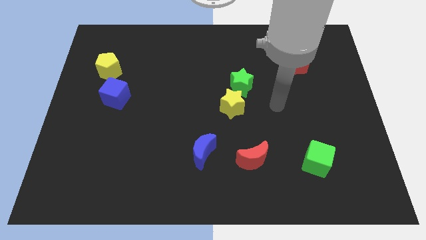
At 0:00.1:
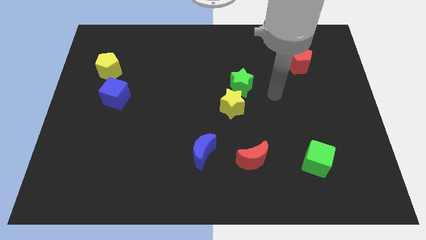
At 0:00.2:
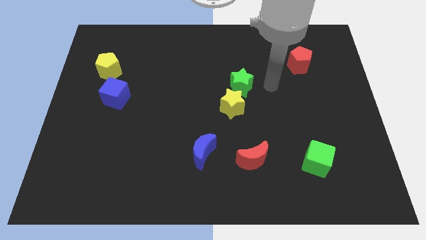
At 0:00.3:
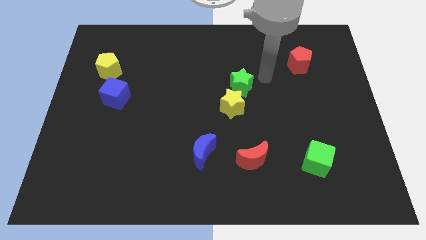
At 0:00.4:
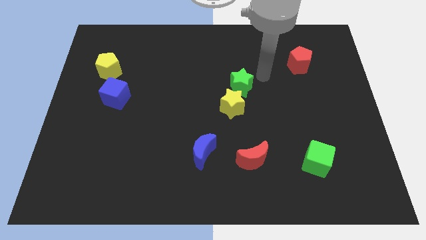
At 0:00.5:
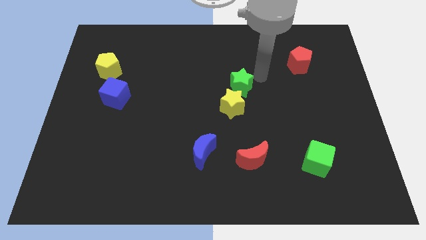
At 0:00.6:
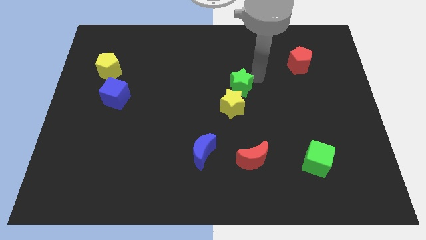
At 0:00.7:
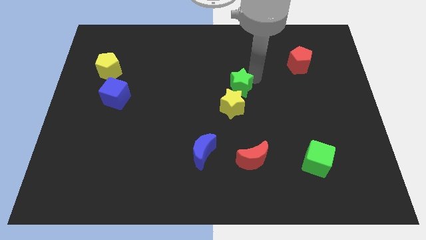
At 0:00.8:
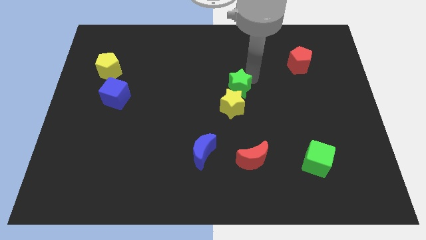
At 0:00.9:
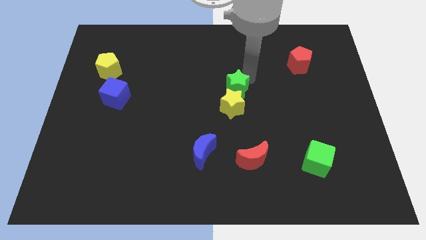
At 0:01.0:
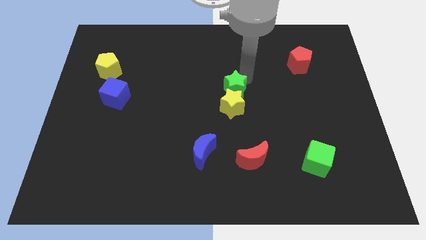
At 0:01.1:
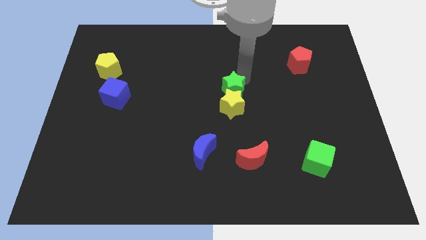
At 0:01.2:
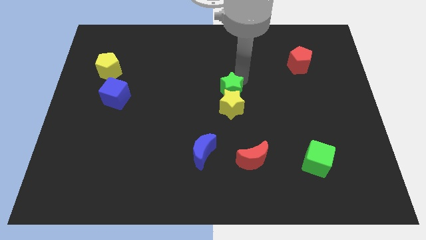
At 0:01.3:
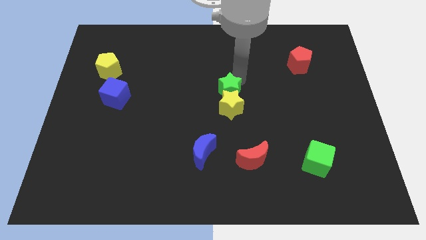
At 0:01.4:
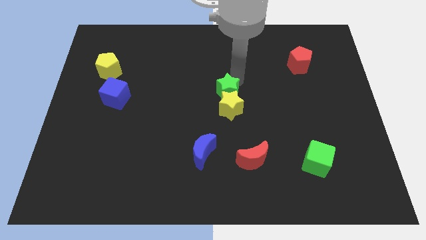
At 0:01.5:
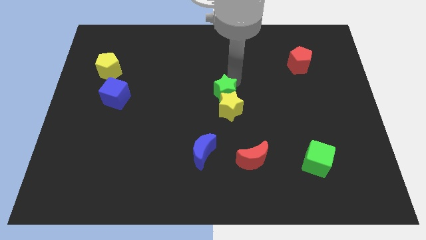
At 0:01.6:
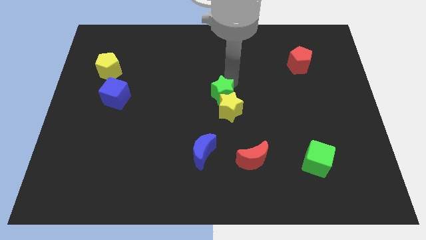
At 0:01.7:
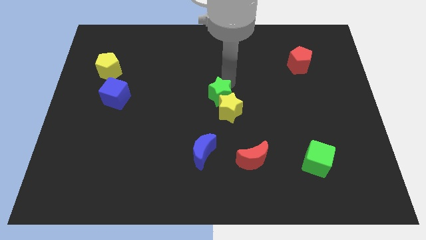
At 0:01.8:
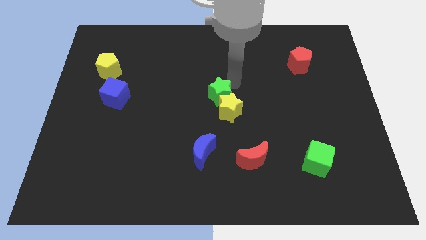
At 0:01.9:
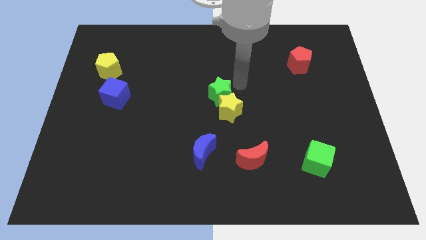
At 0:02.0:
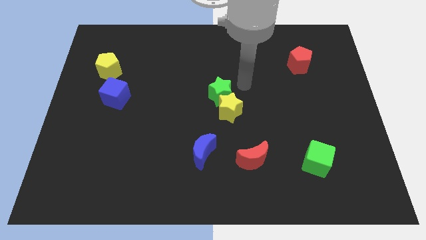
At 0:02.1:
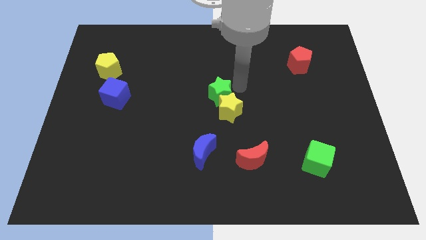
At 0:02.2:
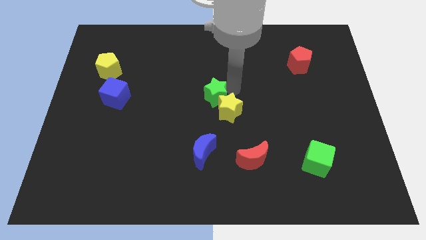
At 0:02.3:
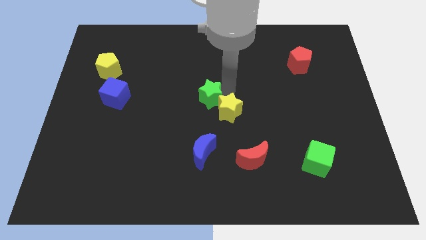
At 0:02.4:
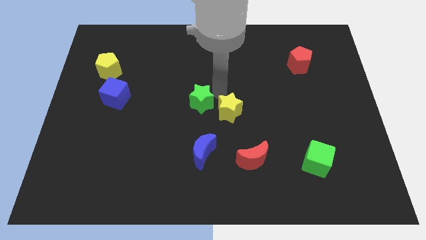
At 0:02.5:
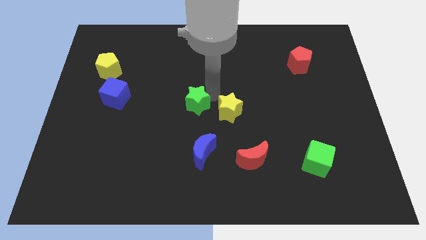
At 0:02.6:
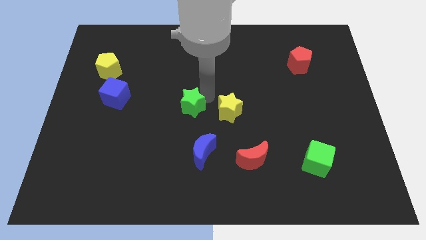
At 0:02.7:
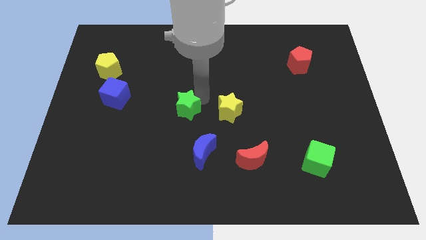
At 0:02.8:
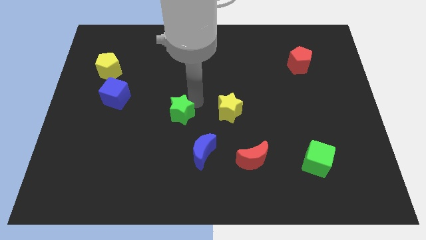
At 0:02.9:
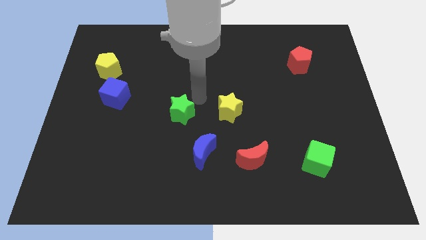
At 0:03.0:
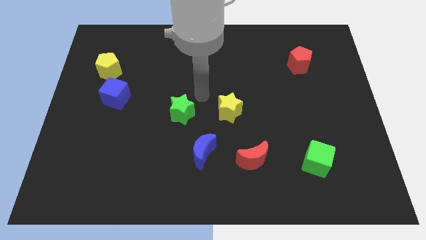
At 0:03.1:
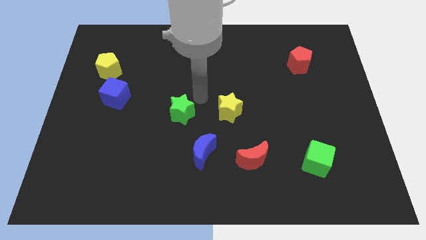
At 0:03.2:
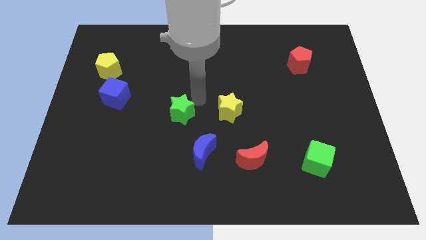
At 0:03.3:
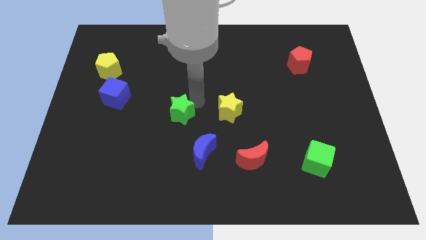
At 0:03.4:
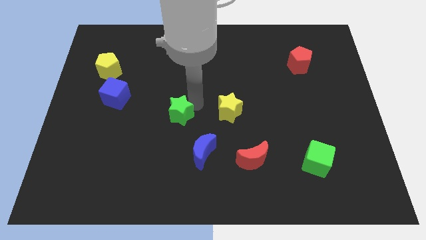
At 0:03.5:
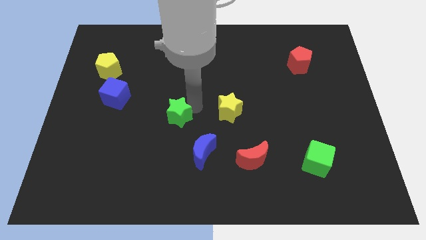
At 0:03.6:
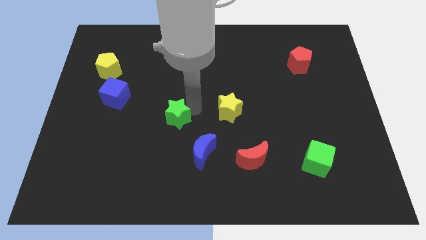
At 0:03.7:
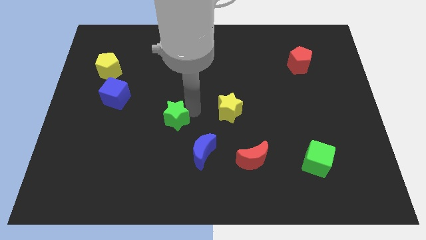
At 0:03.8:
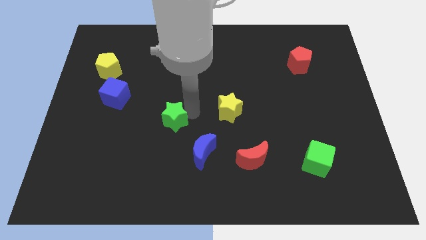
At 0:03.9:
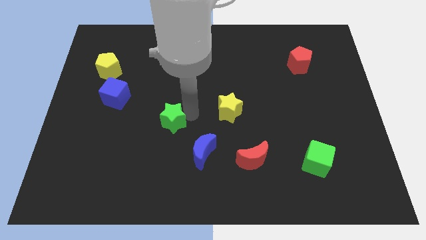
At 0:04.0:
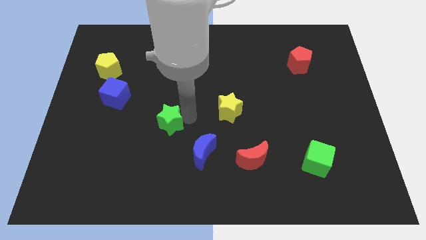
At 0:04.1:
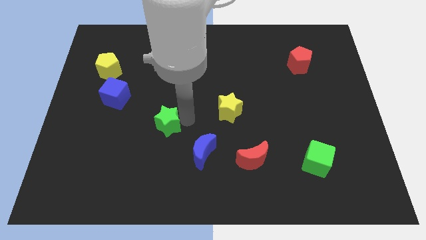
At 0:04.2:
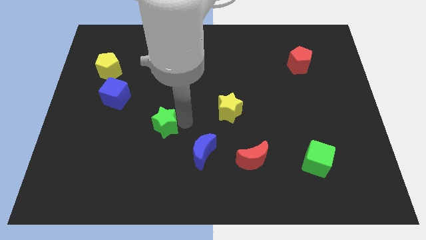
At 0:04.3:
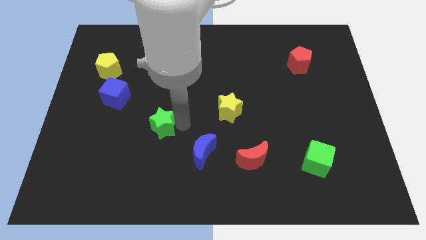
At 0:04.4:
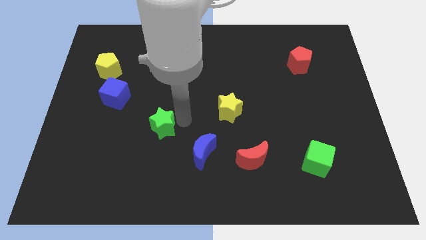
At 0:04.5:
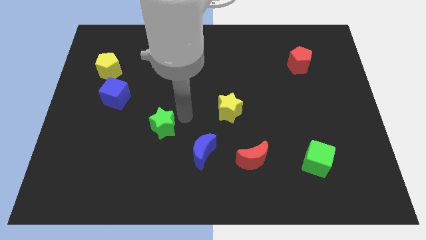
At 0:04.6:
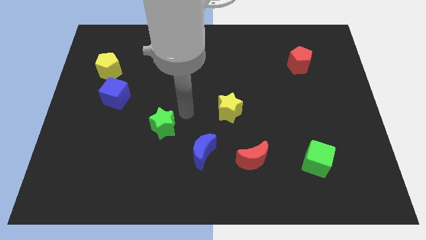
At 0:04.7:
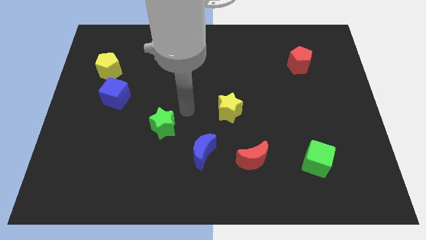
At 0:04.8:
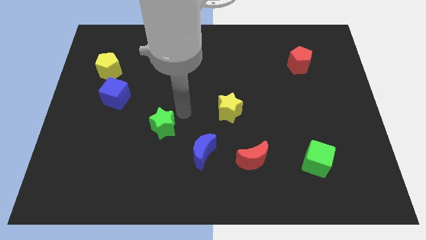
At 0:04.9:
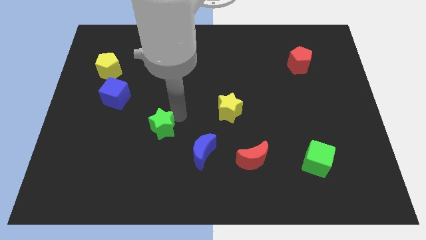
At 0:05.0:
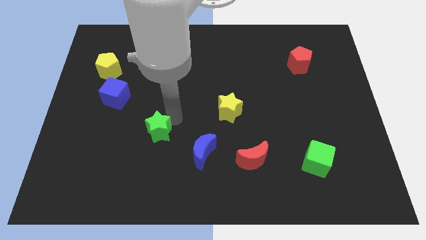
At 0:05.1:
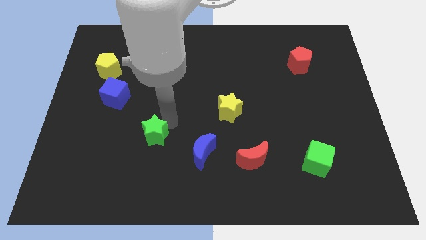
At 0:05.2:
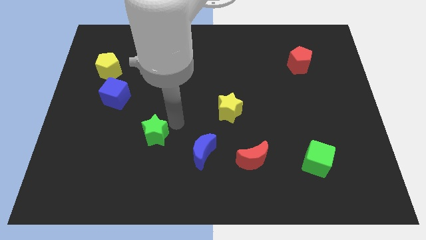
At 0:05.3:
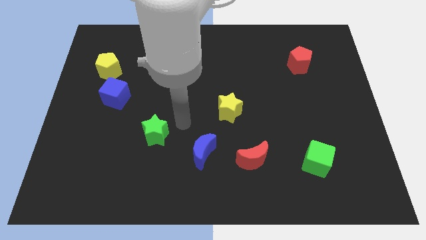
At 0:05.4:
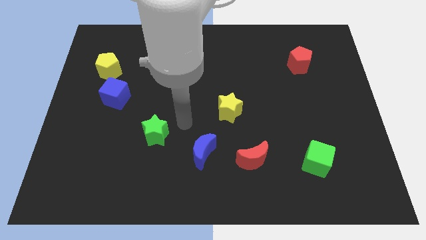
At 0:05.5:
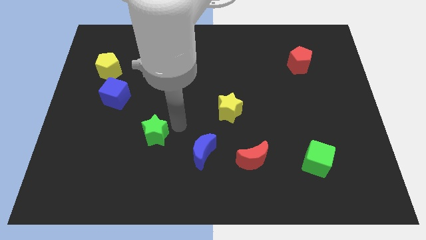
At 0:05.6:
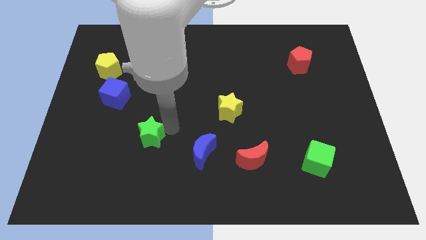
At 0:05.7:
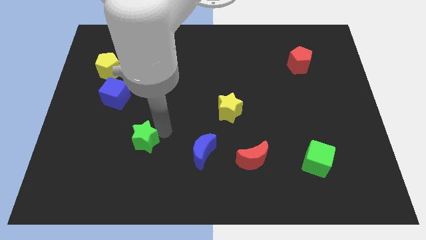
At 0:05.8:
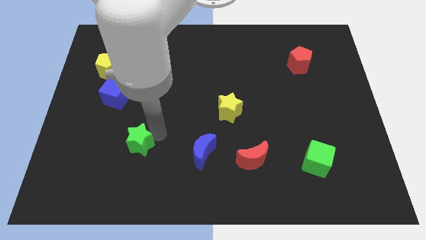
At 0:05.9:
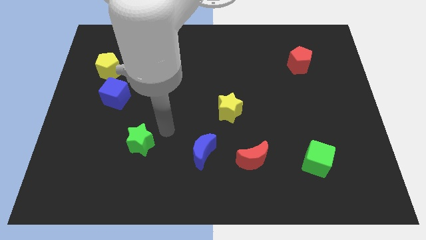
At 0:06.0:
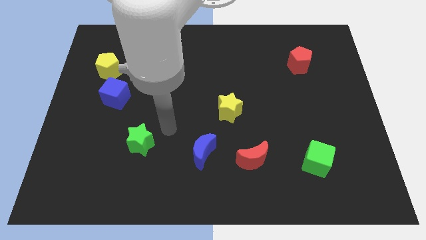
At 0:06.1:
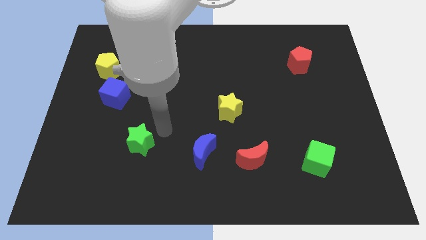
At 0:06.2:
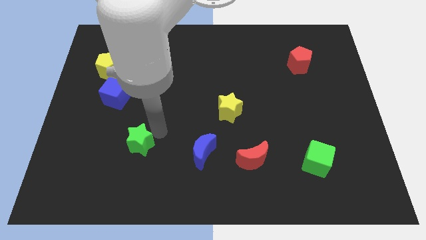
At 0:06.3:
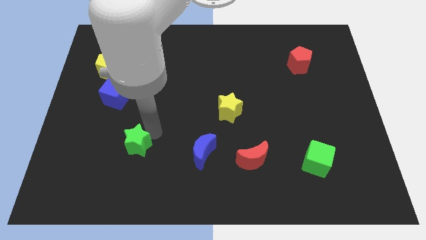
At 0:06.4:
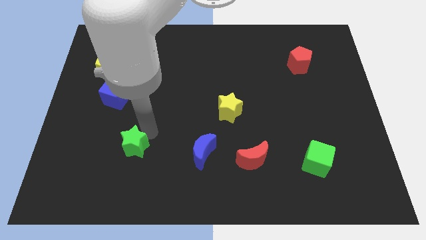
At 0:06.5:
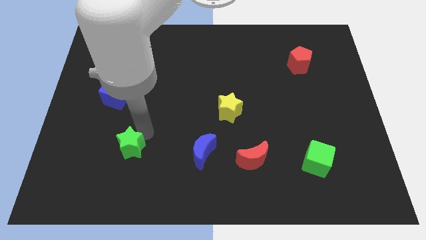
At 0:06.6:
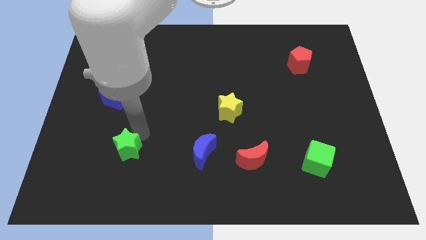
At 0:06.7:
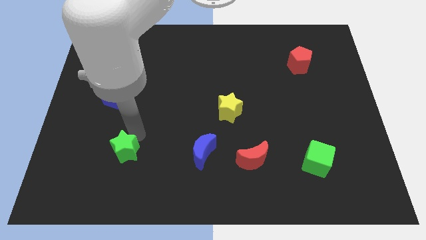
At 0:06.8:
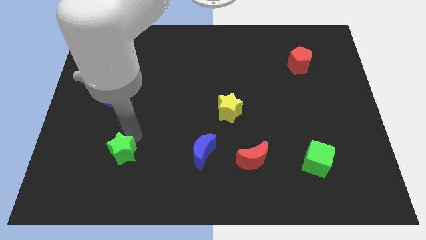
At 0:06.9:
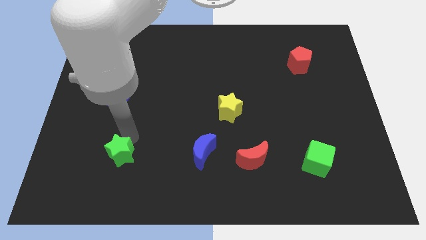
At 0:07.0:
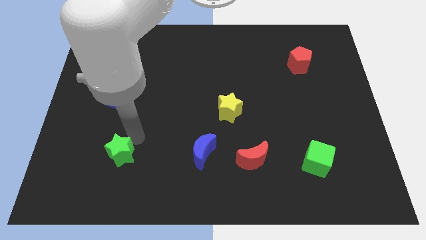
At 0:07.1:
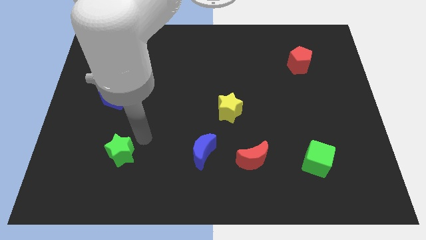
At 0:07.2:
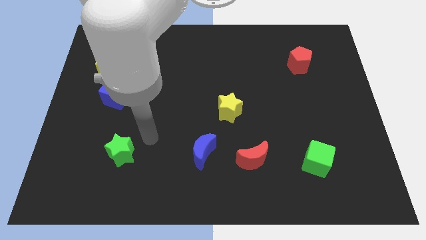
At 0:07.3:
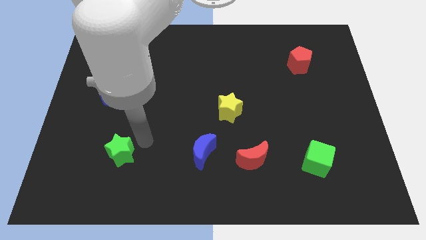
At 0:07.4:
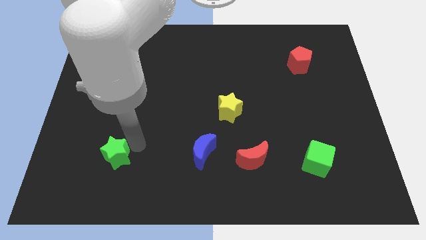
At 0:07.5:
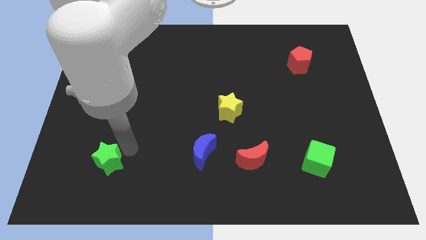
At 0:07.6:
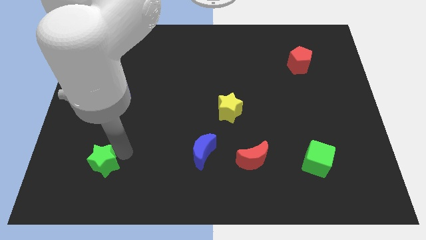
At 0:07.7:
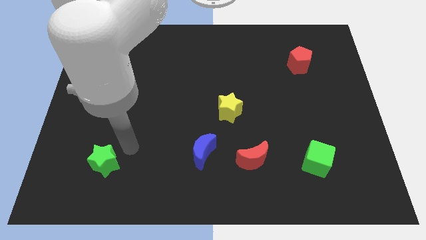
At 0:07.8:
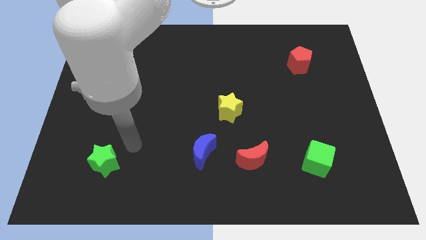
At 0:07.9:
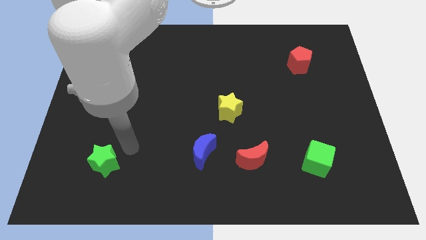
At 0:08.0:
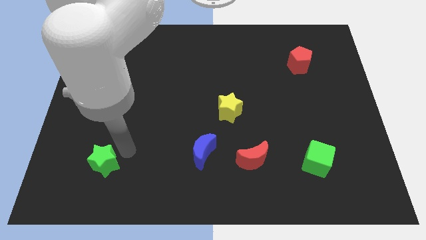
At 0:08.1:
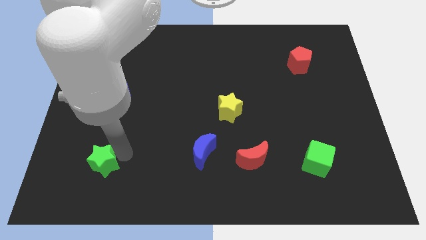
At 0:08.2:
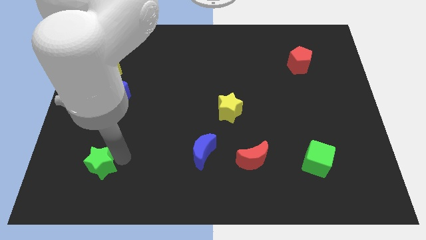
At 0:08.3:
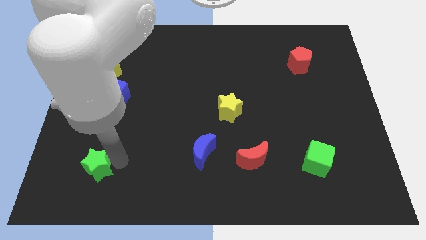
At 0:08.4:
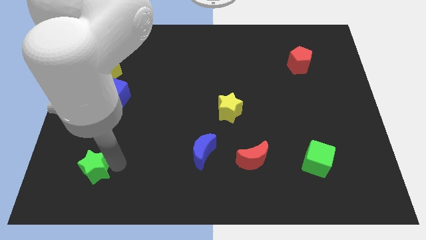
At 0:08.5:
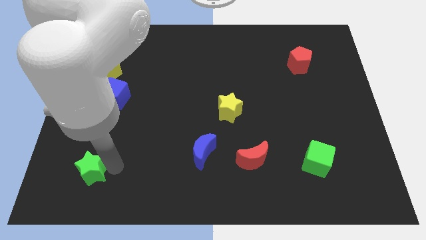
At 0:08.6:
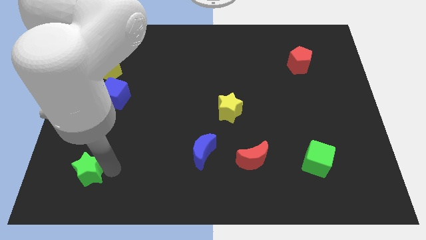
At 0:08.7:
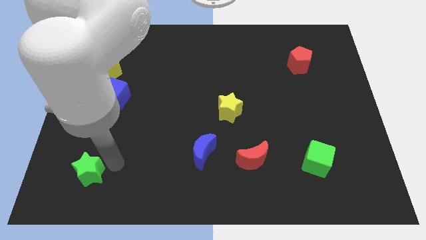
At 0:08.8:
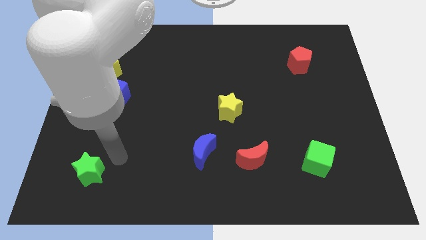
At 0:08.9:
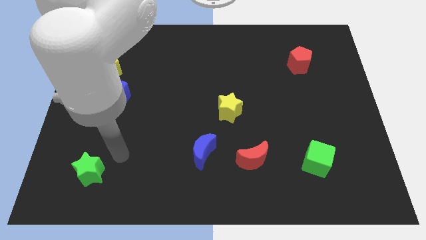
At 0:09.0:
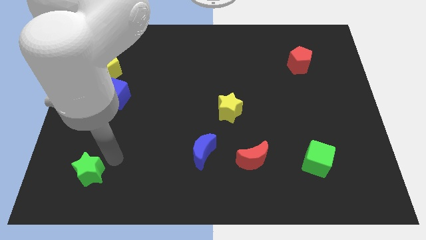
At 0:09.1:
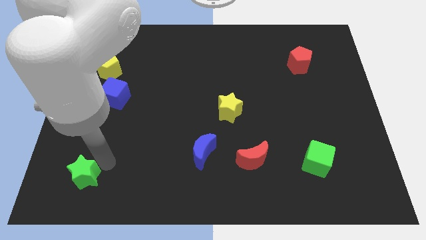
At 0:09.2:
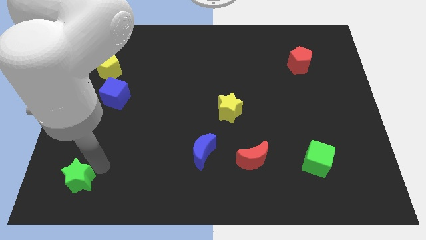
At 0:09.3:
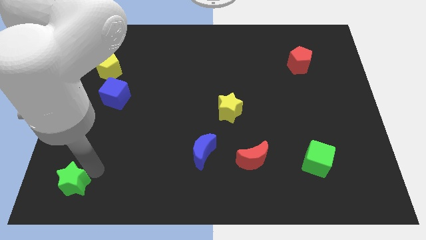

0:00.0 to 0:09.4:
push the green star to the bottom left corner
